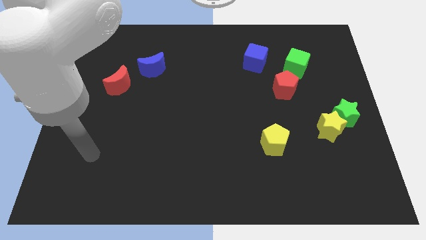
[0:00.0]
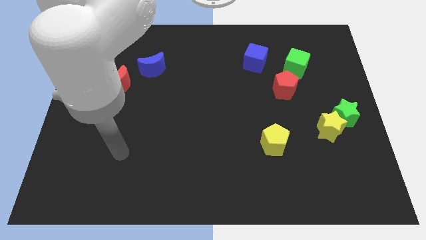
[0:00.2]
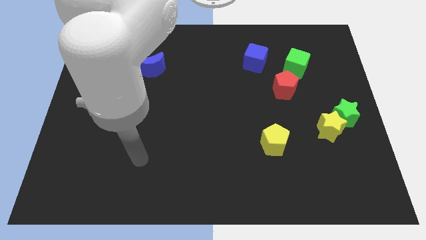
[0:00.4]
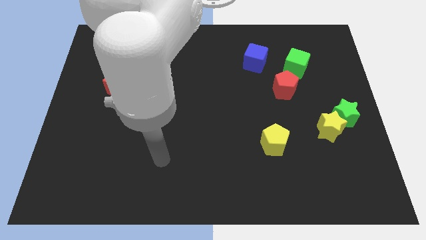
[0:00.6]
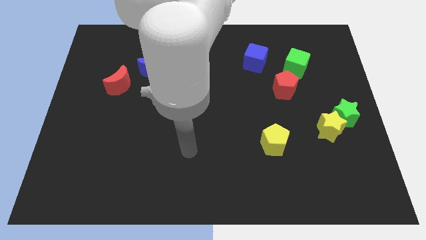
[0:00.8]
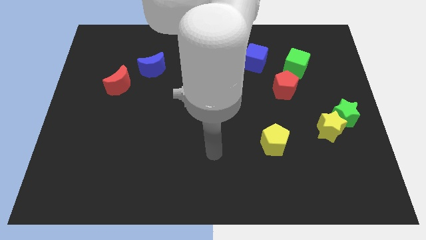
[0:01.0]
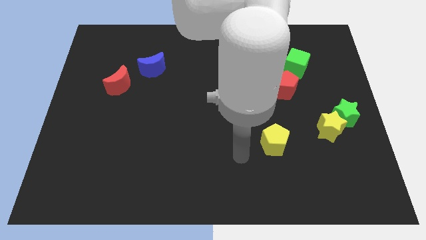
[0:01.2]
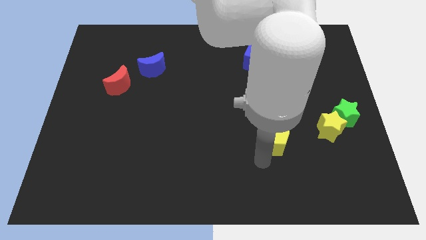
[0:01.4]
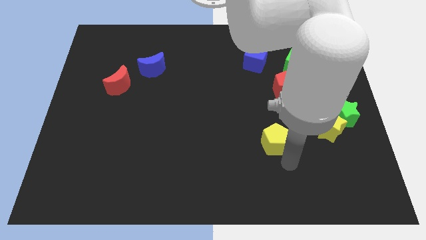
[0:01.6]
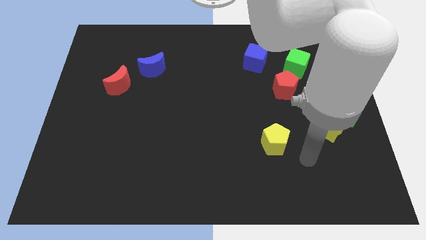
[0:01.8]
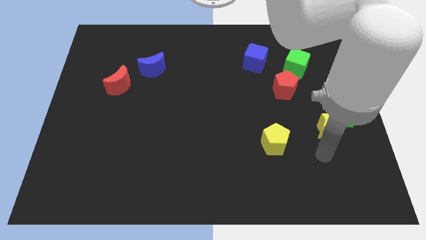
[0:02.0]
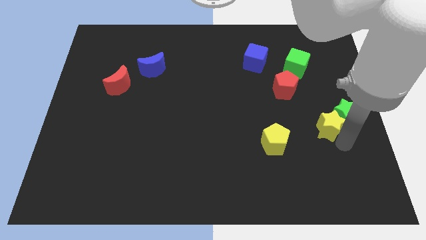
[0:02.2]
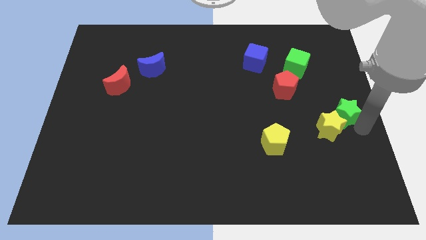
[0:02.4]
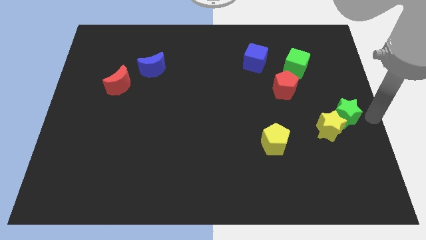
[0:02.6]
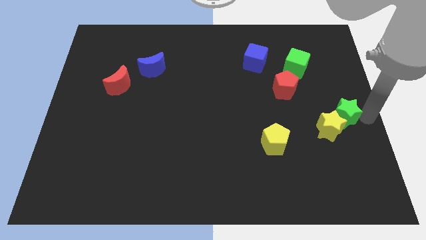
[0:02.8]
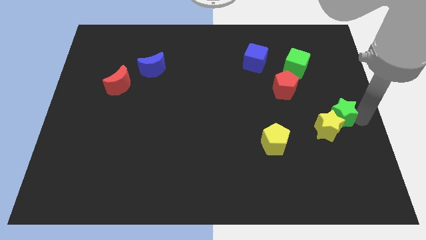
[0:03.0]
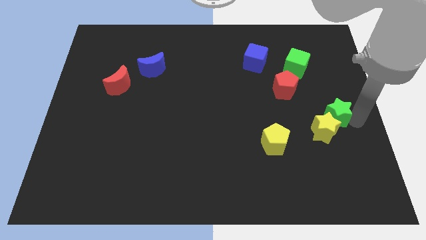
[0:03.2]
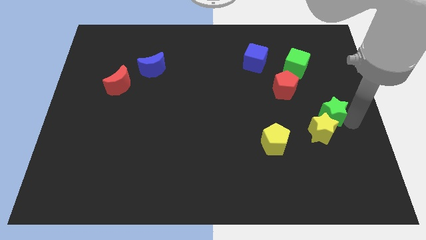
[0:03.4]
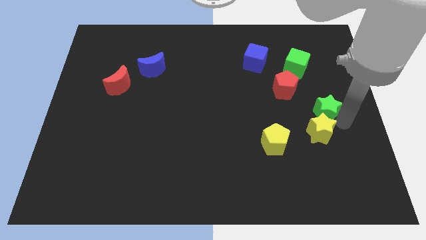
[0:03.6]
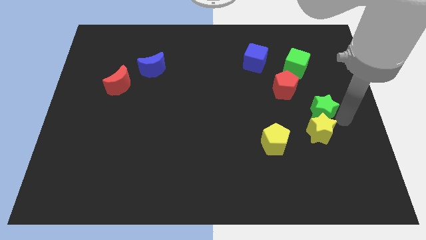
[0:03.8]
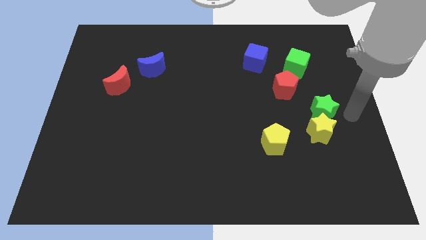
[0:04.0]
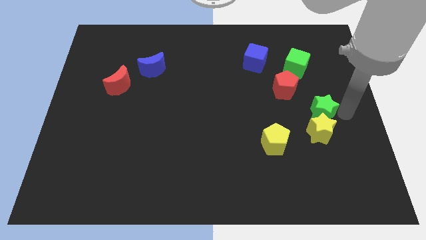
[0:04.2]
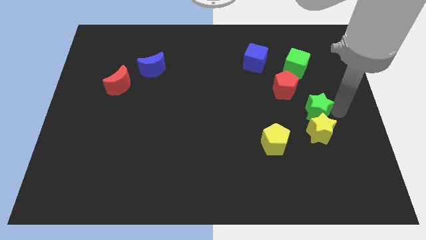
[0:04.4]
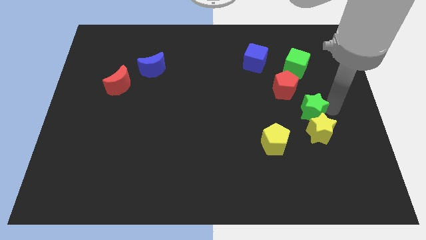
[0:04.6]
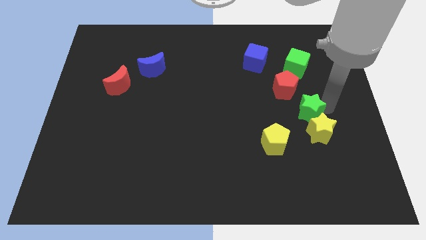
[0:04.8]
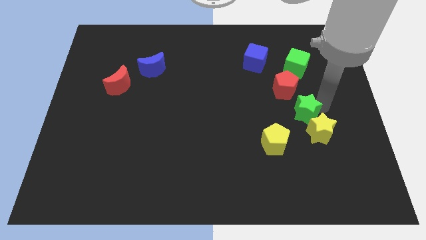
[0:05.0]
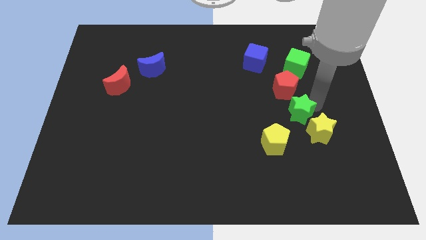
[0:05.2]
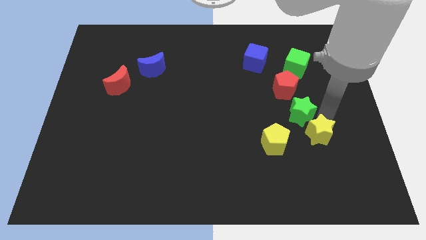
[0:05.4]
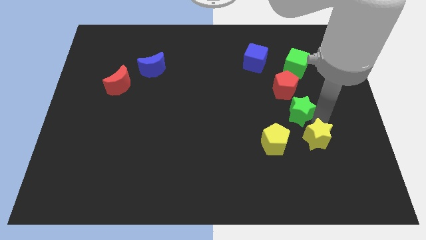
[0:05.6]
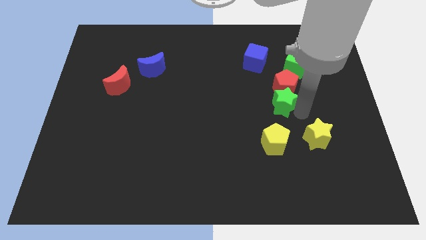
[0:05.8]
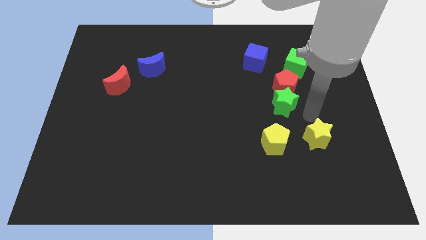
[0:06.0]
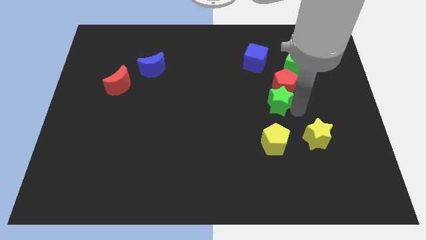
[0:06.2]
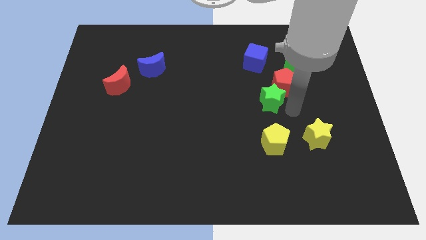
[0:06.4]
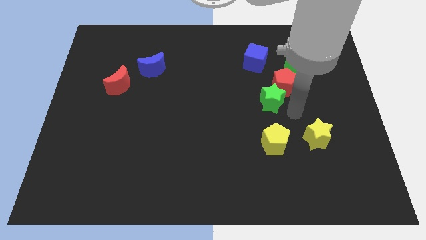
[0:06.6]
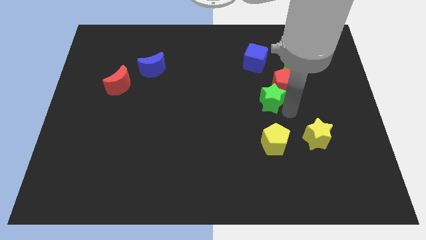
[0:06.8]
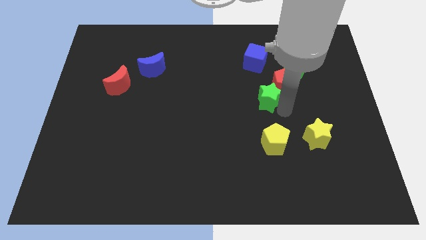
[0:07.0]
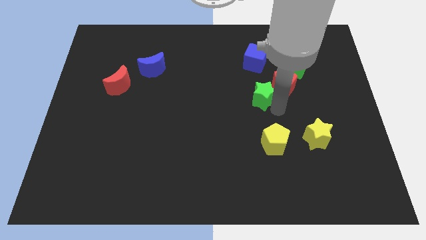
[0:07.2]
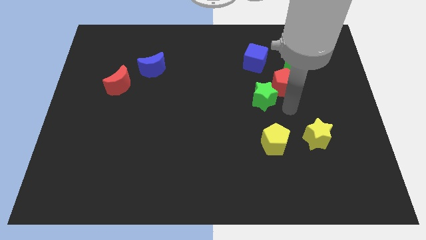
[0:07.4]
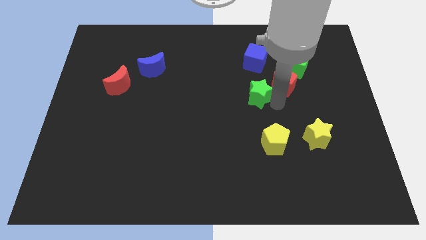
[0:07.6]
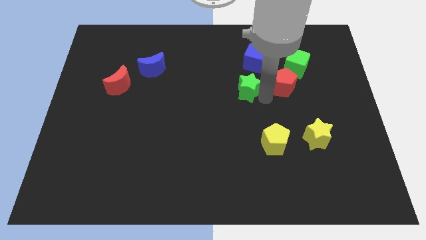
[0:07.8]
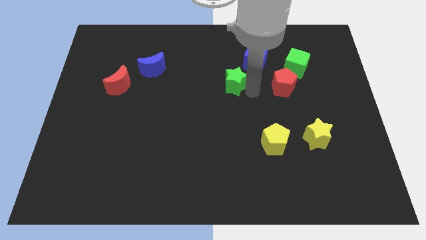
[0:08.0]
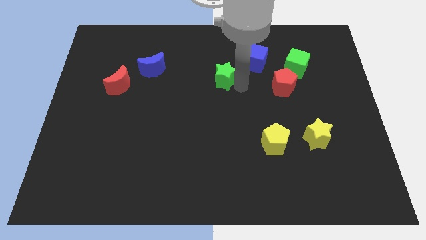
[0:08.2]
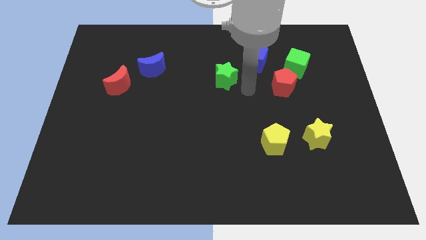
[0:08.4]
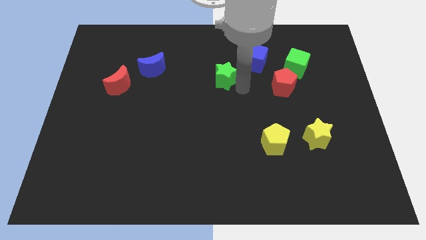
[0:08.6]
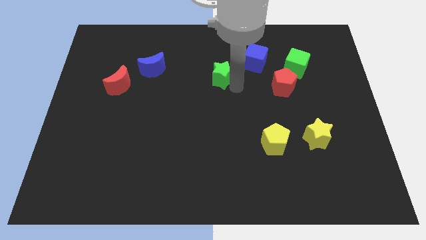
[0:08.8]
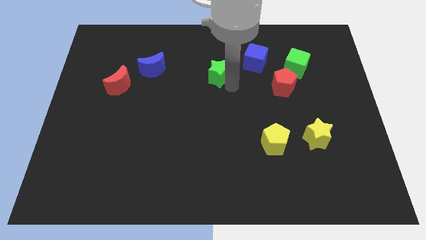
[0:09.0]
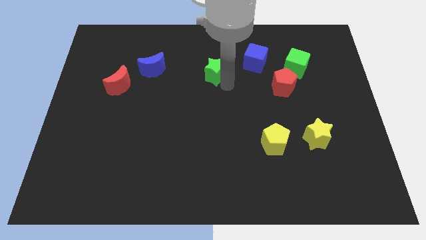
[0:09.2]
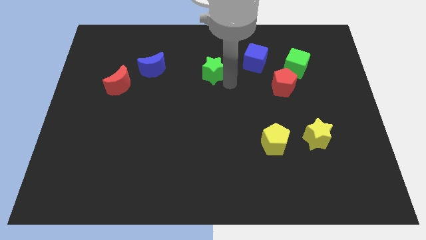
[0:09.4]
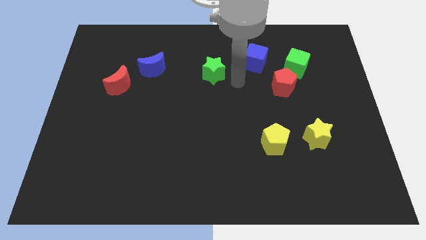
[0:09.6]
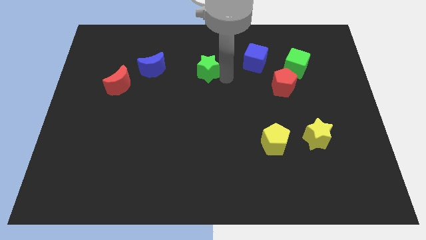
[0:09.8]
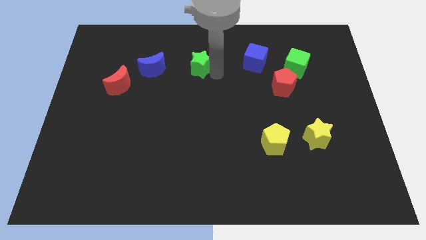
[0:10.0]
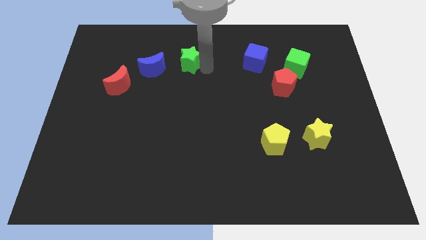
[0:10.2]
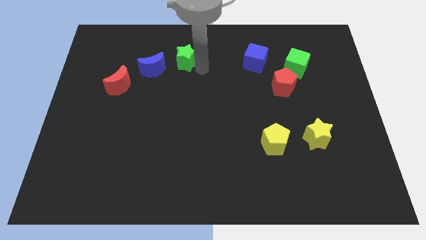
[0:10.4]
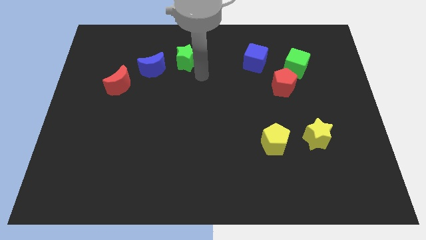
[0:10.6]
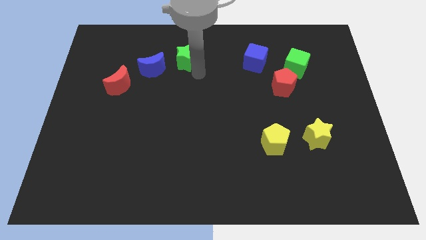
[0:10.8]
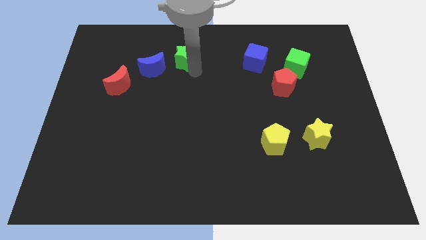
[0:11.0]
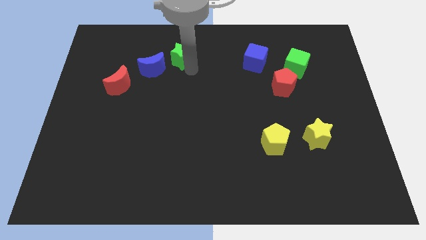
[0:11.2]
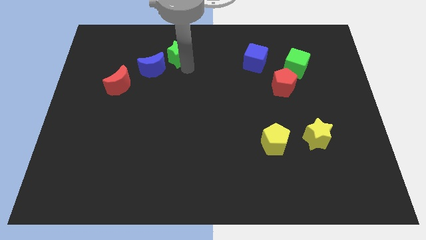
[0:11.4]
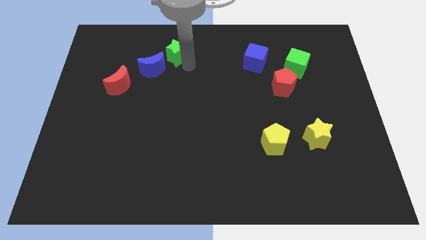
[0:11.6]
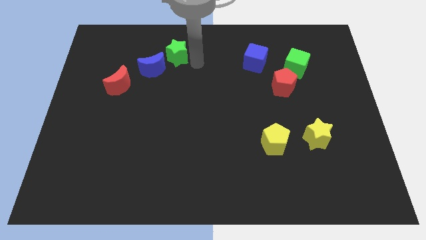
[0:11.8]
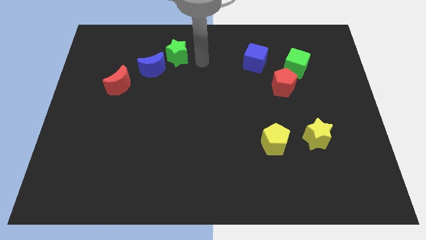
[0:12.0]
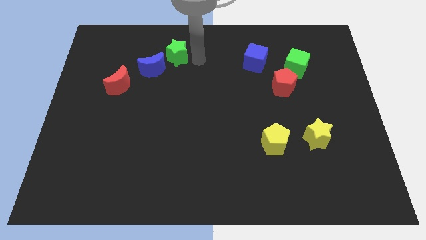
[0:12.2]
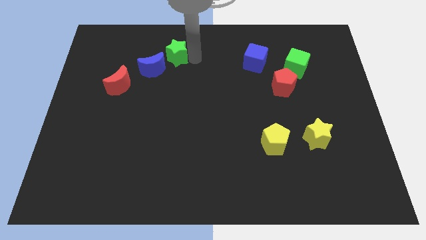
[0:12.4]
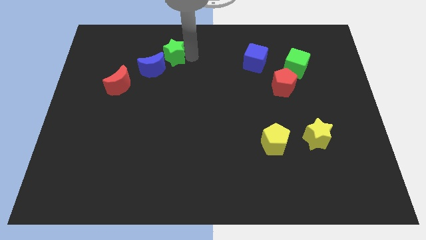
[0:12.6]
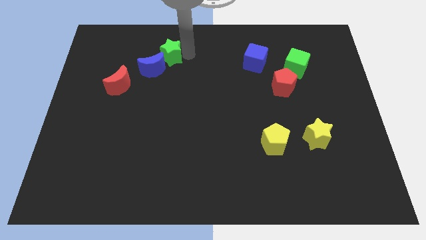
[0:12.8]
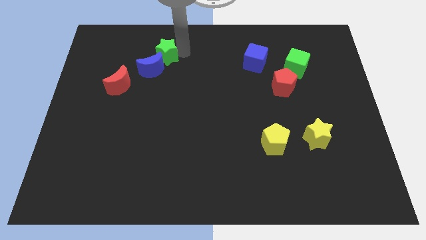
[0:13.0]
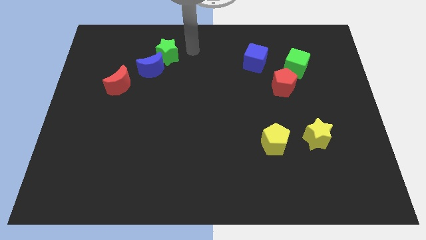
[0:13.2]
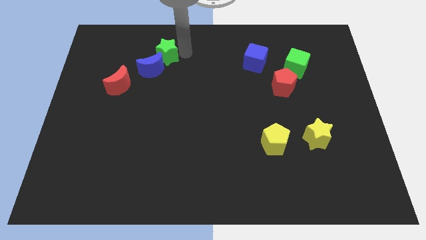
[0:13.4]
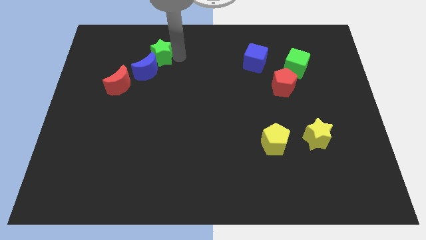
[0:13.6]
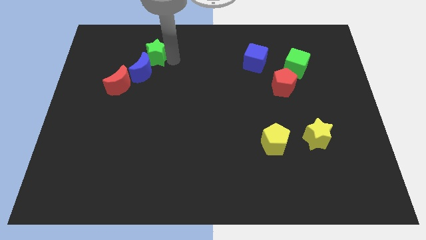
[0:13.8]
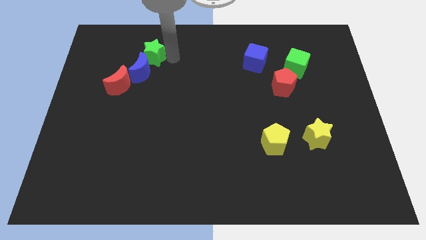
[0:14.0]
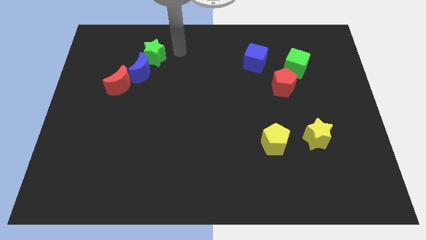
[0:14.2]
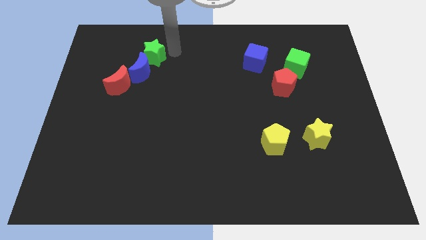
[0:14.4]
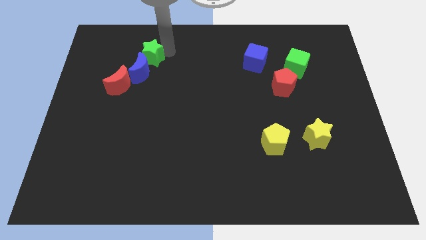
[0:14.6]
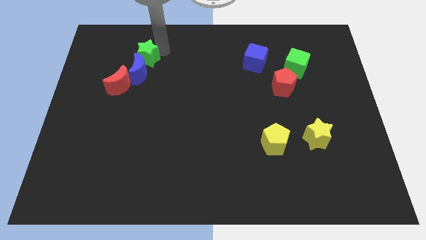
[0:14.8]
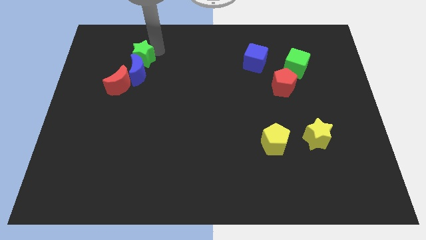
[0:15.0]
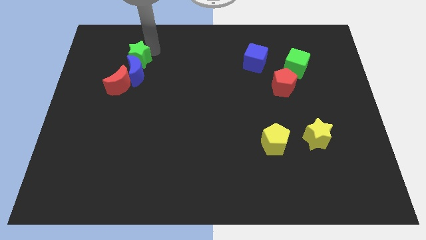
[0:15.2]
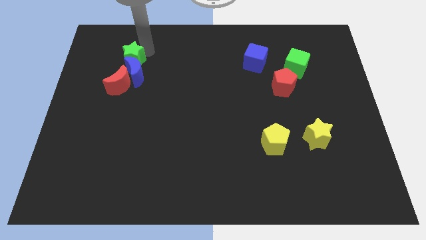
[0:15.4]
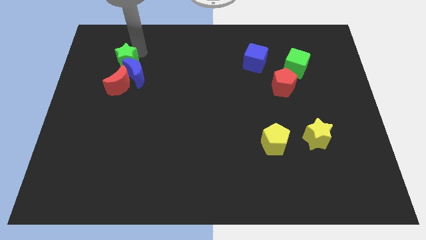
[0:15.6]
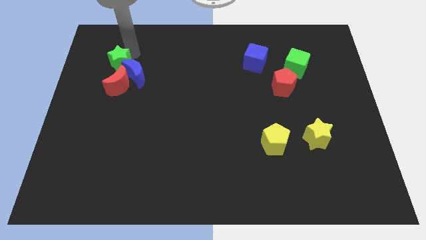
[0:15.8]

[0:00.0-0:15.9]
push the green star to the left side of the blue moon
